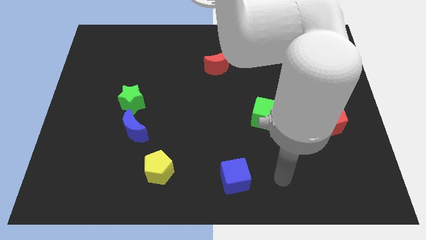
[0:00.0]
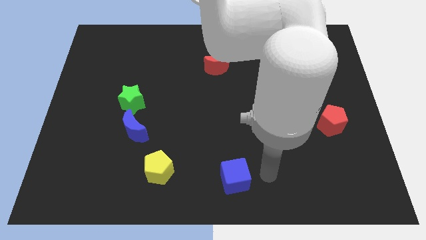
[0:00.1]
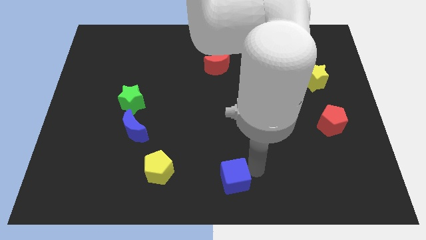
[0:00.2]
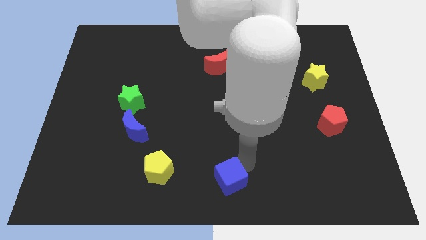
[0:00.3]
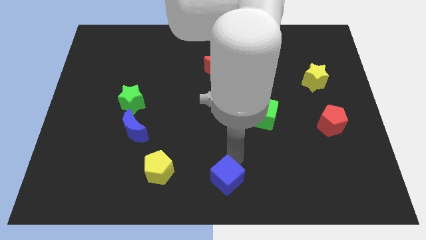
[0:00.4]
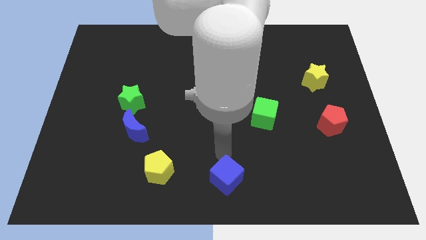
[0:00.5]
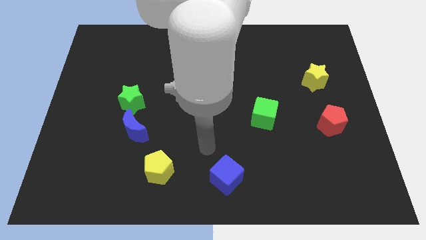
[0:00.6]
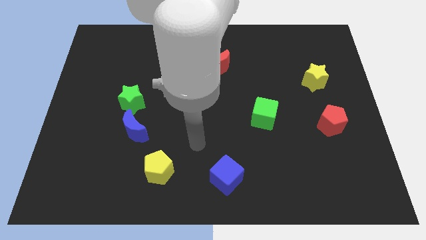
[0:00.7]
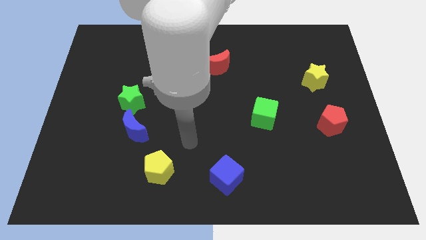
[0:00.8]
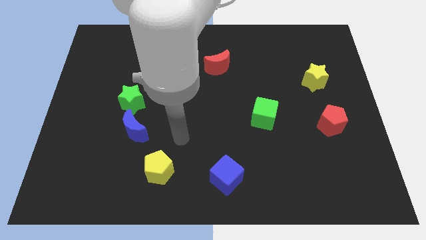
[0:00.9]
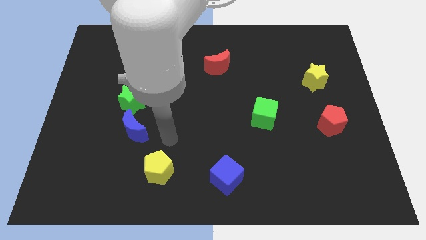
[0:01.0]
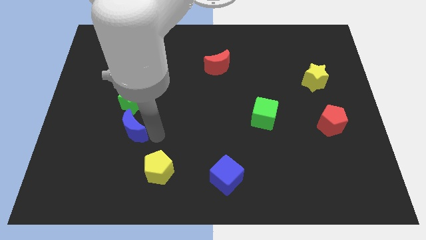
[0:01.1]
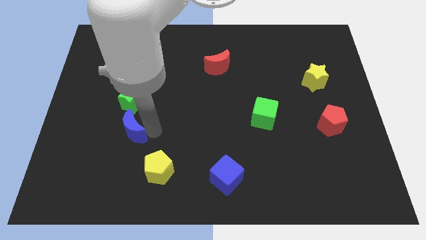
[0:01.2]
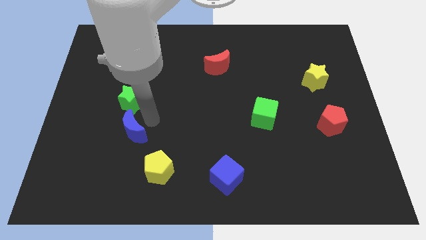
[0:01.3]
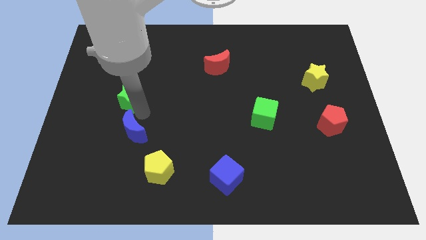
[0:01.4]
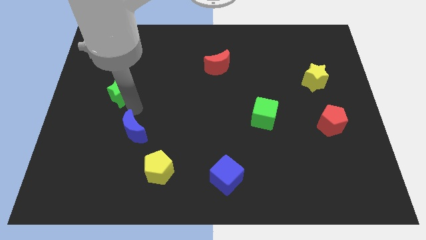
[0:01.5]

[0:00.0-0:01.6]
move the blue moon away from the green star

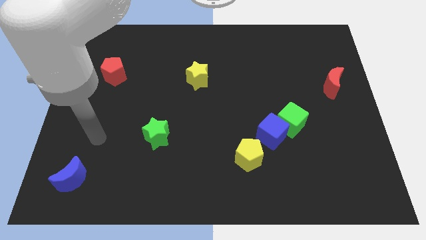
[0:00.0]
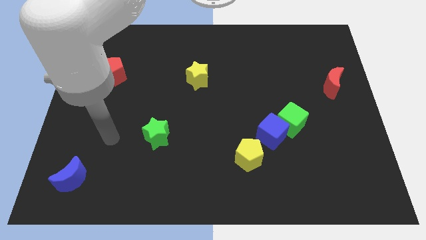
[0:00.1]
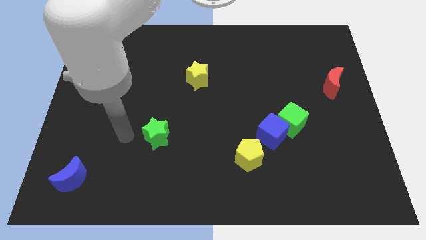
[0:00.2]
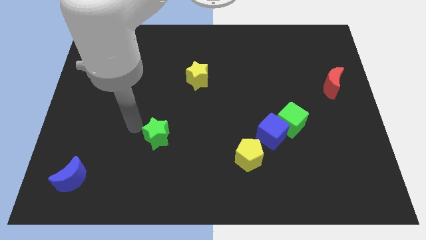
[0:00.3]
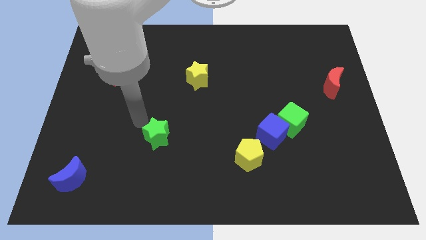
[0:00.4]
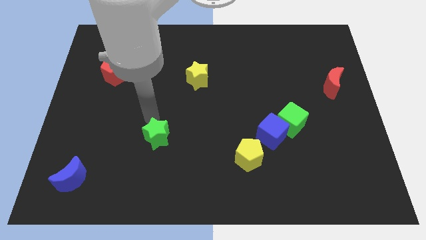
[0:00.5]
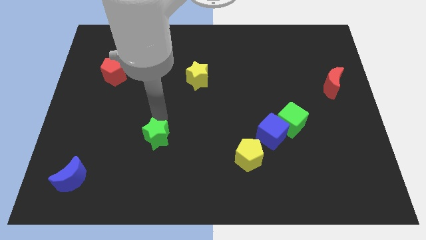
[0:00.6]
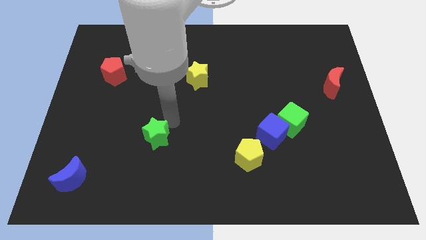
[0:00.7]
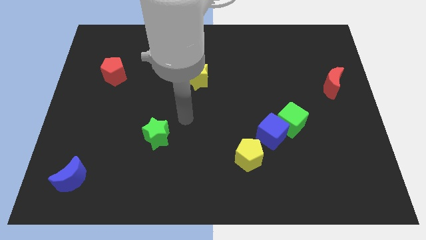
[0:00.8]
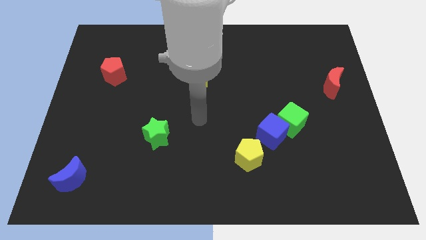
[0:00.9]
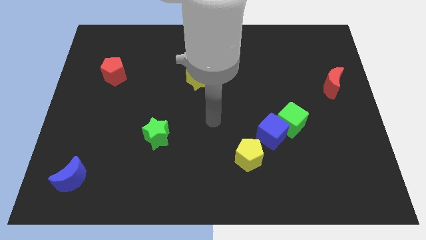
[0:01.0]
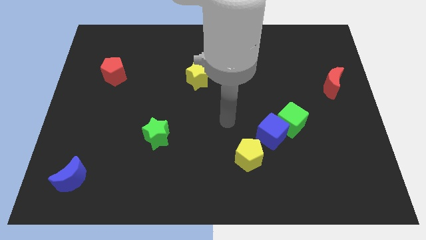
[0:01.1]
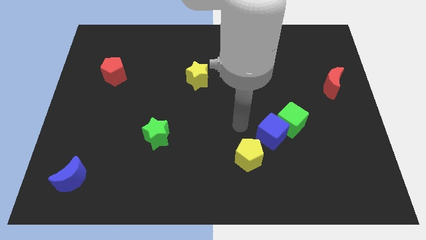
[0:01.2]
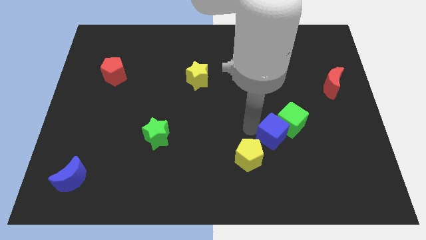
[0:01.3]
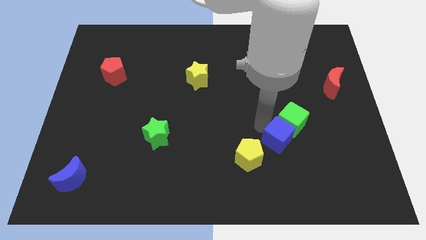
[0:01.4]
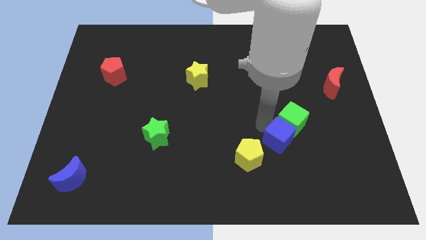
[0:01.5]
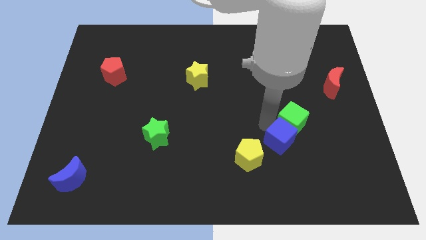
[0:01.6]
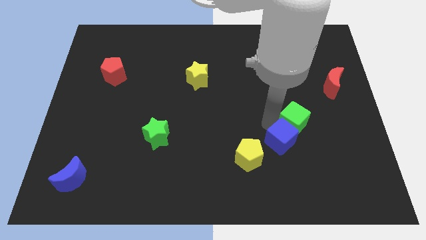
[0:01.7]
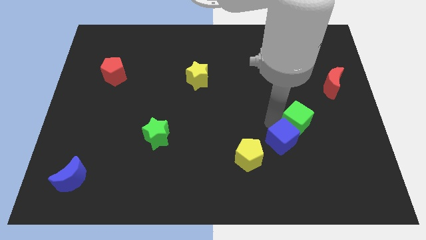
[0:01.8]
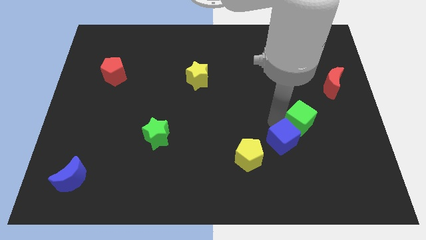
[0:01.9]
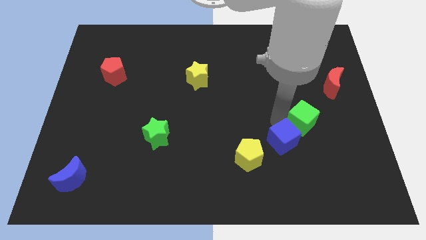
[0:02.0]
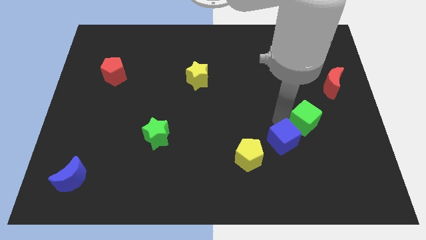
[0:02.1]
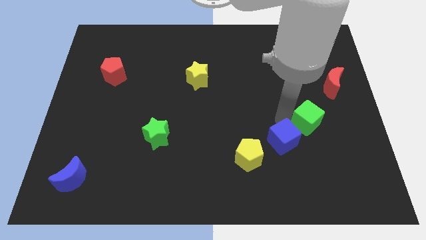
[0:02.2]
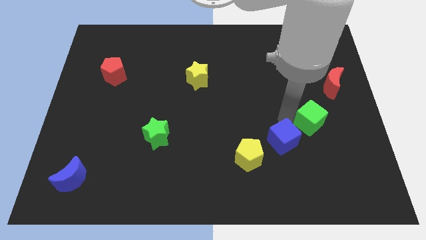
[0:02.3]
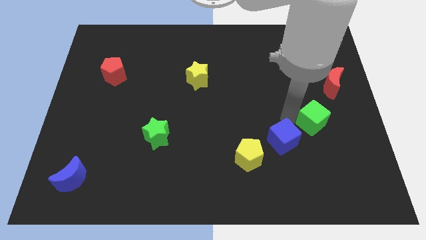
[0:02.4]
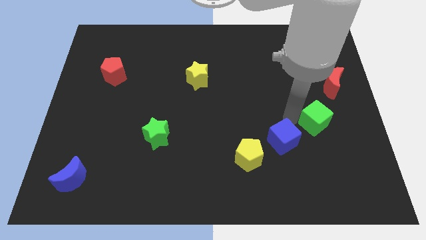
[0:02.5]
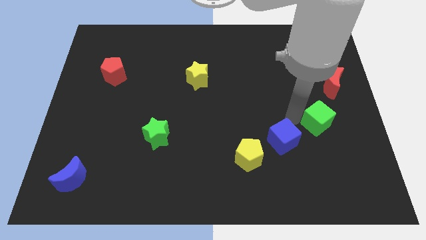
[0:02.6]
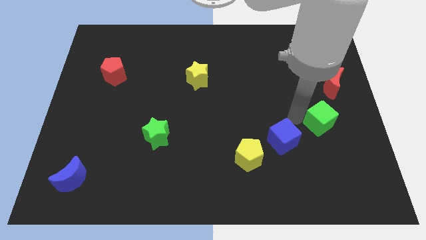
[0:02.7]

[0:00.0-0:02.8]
pull the green cube apart from the blue cube

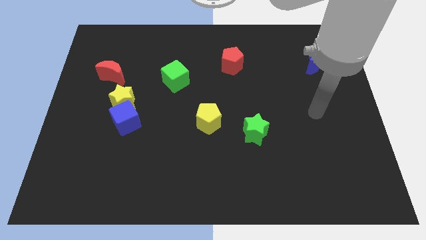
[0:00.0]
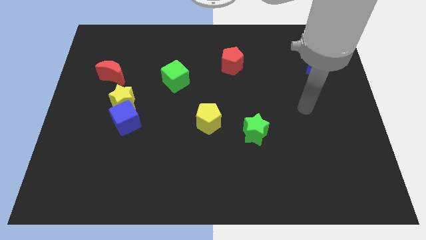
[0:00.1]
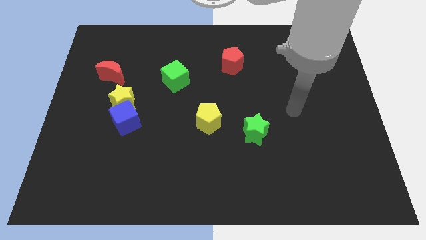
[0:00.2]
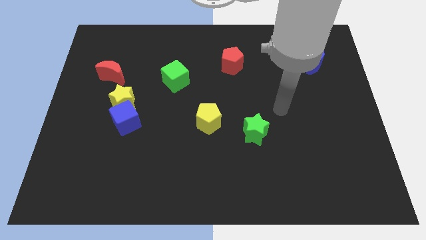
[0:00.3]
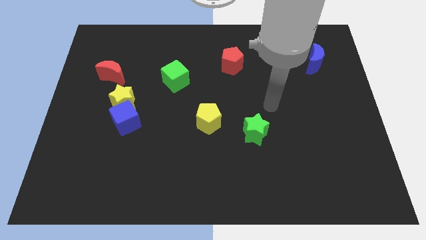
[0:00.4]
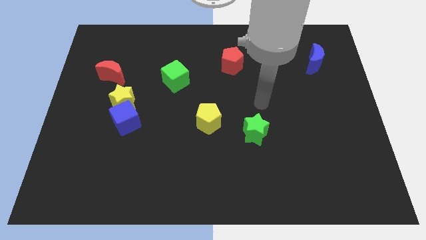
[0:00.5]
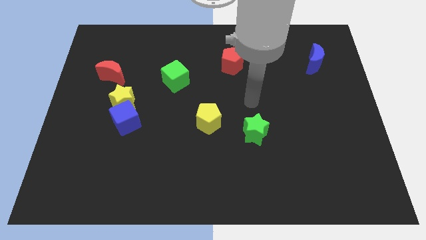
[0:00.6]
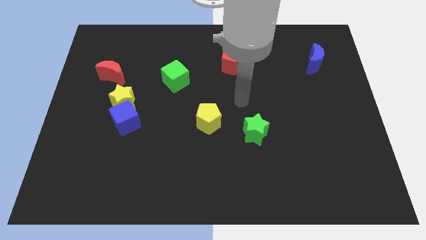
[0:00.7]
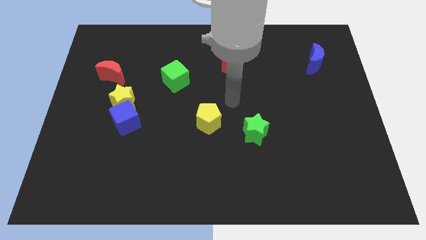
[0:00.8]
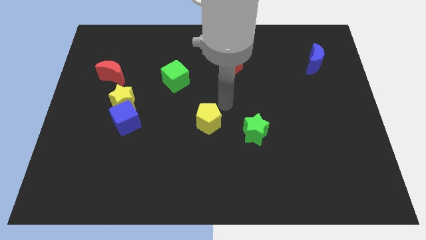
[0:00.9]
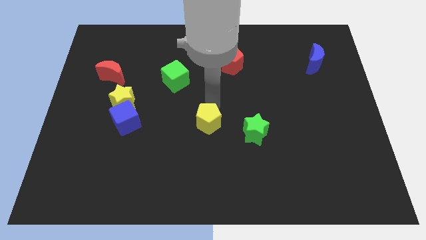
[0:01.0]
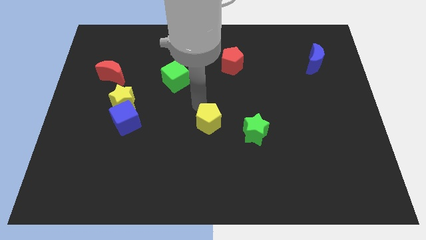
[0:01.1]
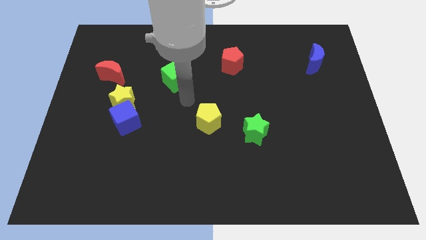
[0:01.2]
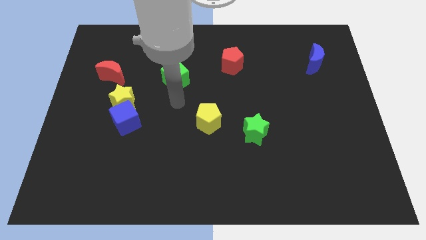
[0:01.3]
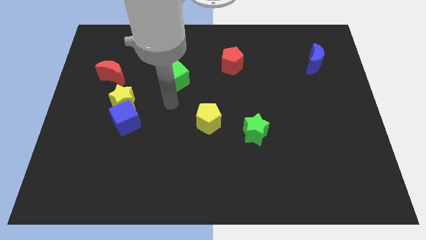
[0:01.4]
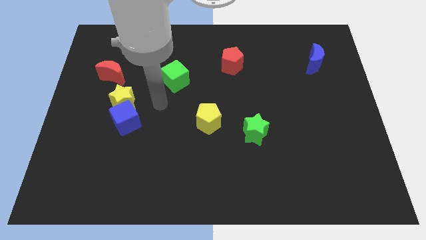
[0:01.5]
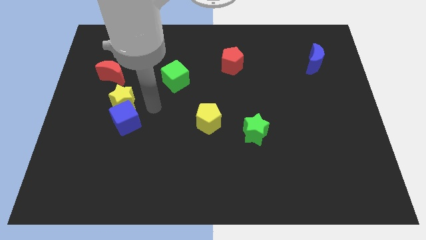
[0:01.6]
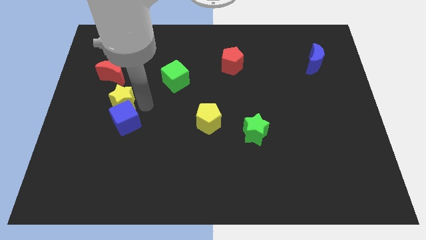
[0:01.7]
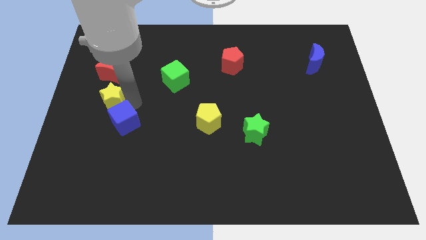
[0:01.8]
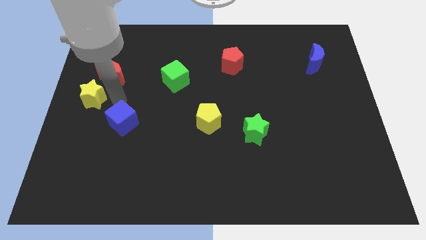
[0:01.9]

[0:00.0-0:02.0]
pull the blue cube apart from the yellow star

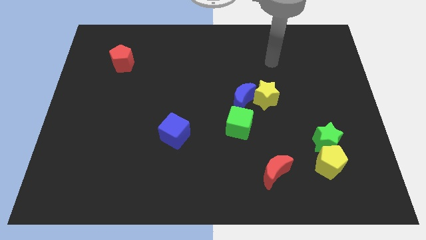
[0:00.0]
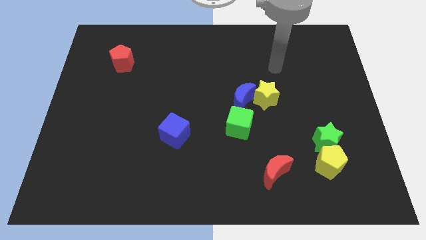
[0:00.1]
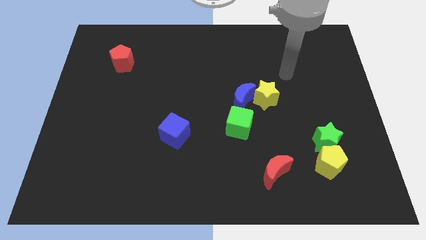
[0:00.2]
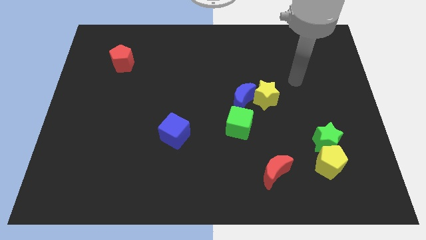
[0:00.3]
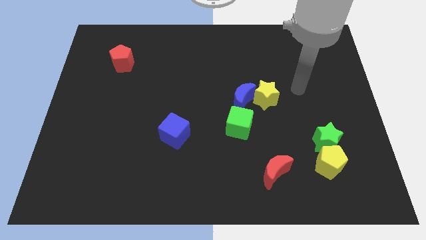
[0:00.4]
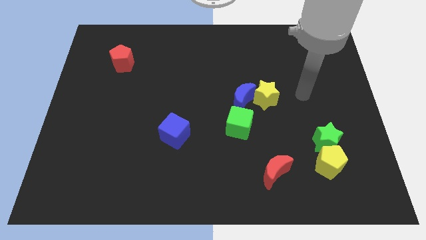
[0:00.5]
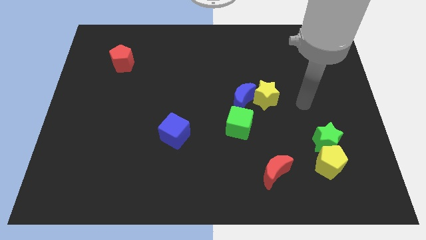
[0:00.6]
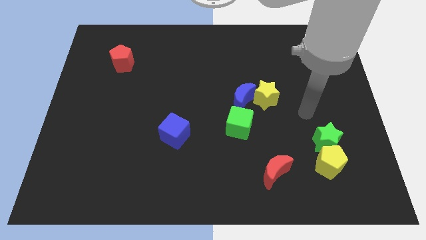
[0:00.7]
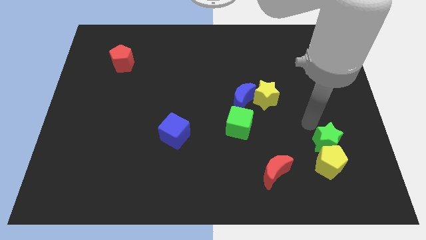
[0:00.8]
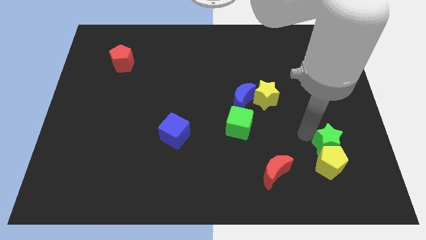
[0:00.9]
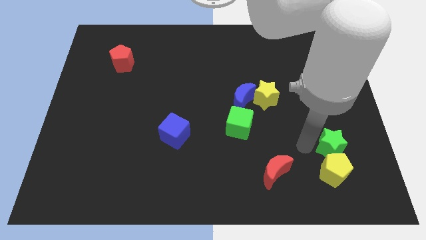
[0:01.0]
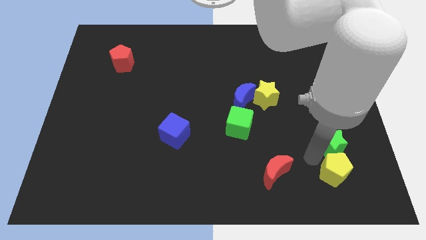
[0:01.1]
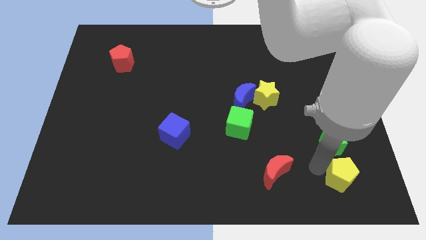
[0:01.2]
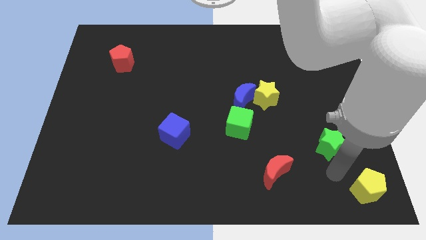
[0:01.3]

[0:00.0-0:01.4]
move the green star away from the yellow pentagon

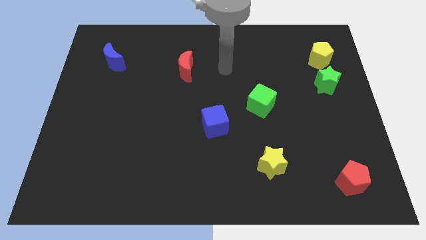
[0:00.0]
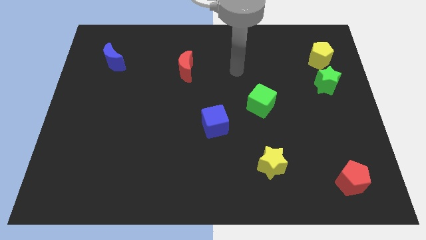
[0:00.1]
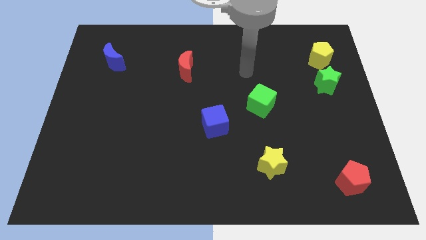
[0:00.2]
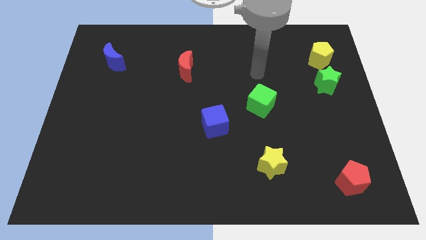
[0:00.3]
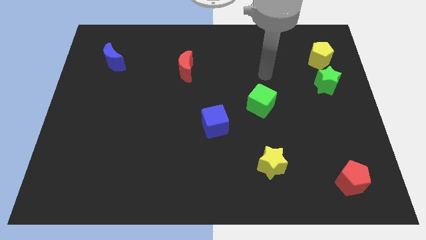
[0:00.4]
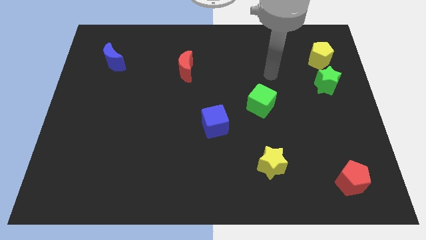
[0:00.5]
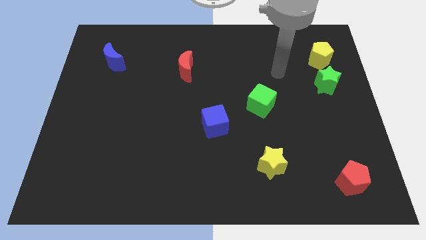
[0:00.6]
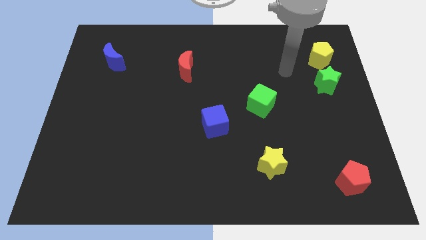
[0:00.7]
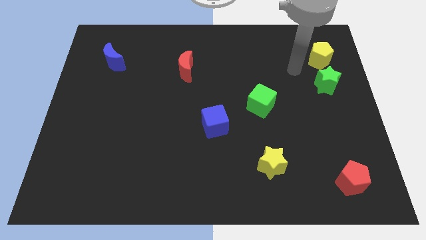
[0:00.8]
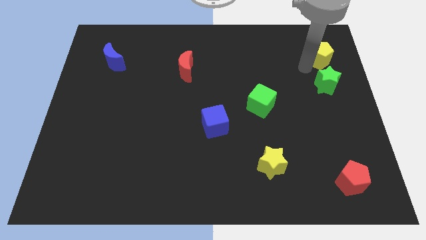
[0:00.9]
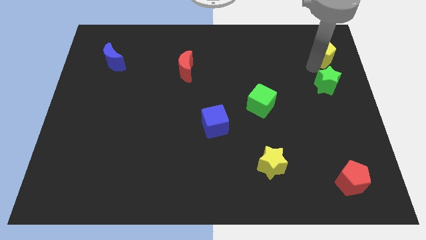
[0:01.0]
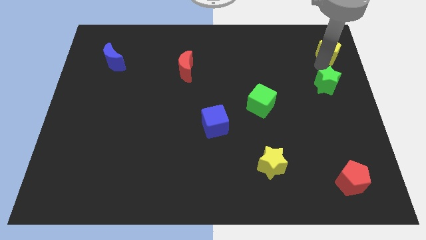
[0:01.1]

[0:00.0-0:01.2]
pull the green star apart from the yellow pentagon

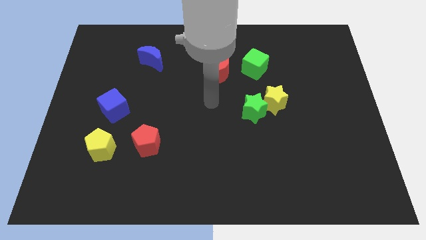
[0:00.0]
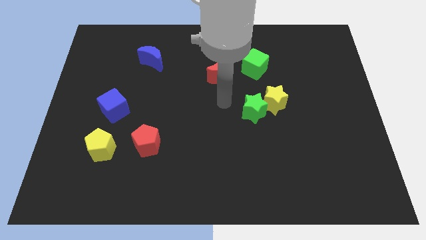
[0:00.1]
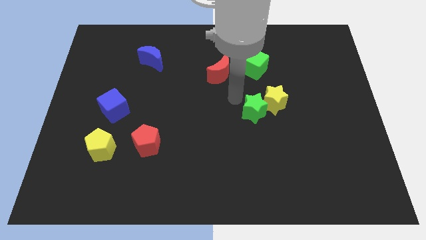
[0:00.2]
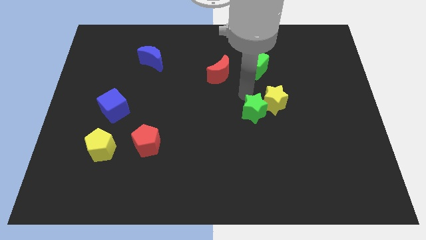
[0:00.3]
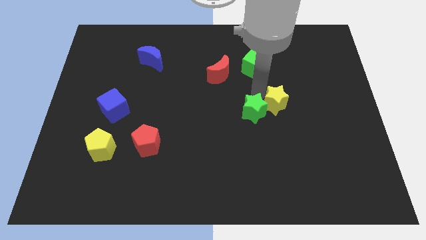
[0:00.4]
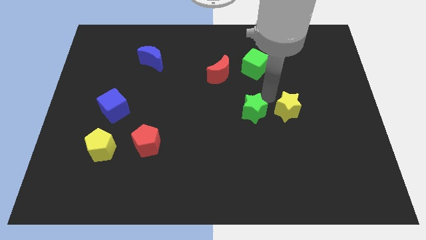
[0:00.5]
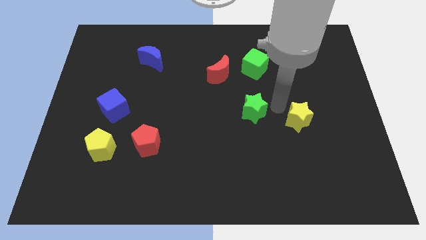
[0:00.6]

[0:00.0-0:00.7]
separate the green star from the yellow star
